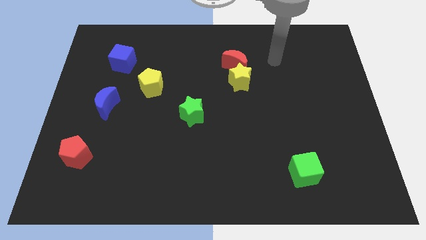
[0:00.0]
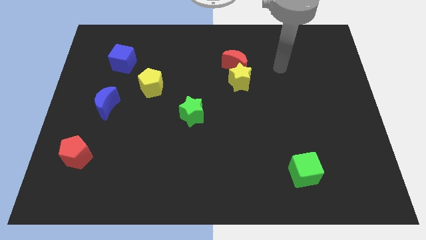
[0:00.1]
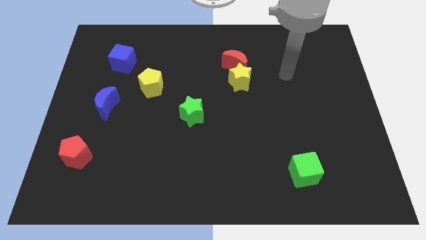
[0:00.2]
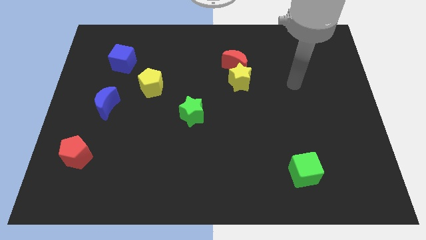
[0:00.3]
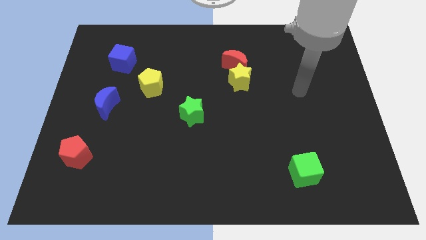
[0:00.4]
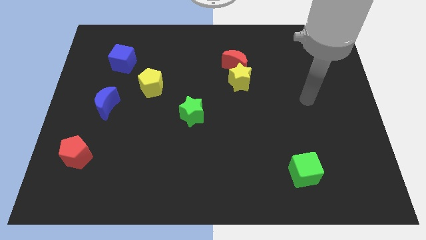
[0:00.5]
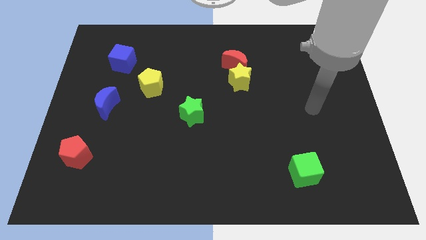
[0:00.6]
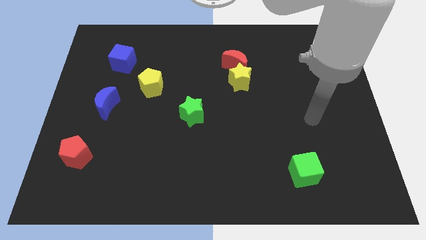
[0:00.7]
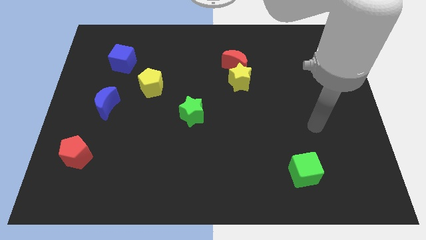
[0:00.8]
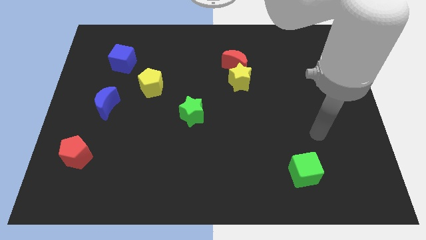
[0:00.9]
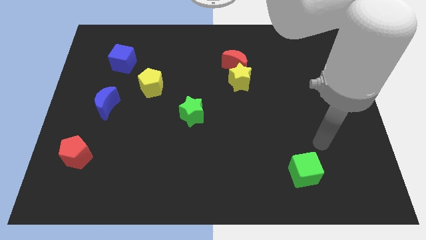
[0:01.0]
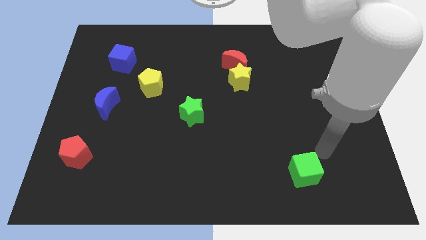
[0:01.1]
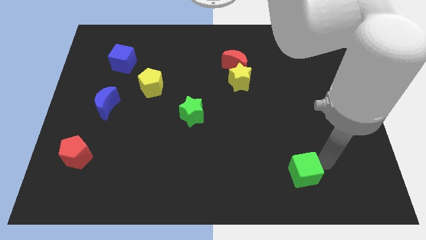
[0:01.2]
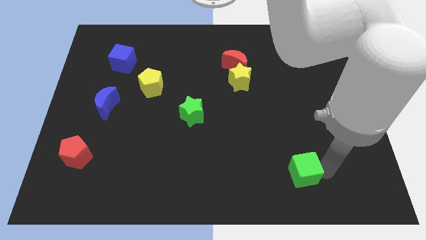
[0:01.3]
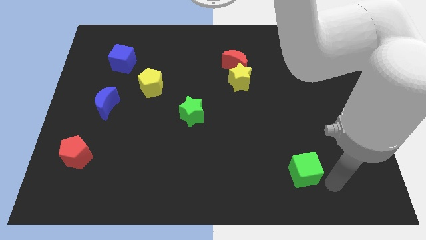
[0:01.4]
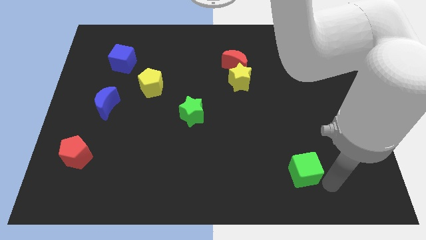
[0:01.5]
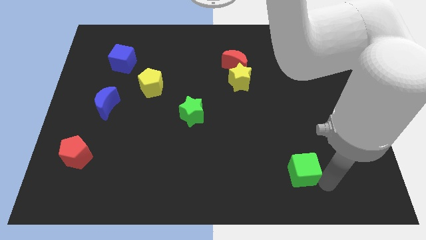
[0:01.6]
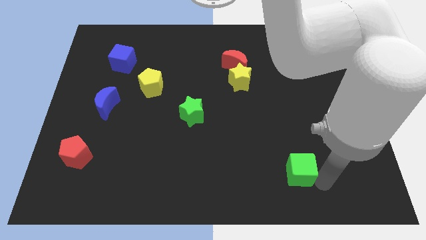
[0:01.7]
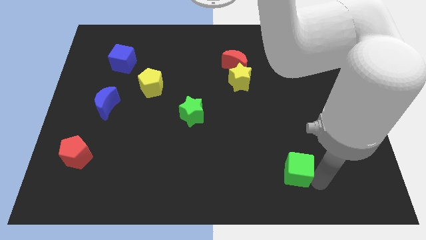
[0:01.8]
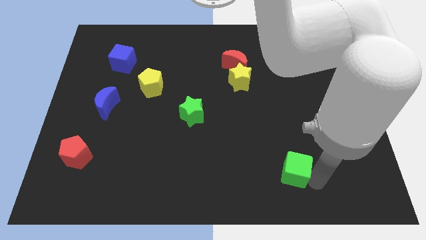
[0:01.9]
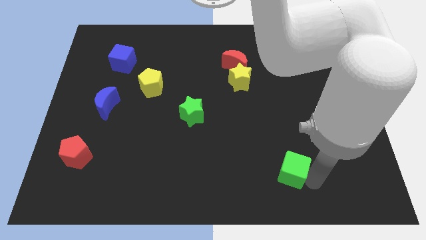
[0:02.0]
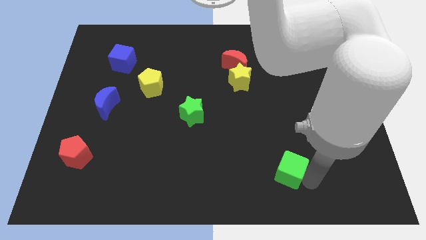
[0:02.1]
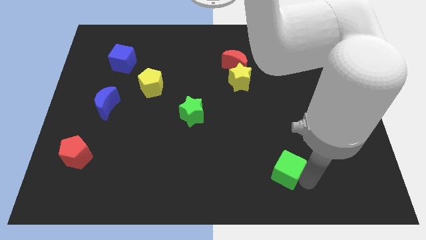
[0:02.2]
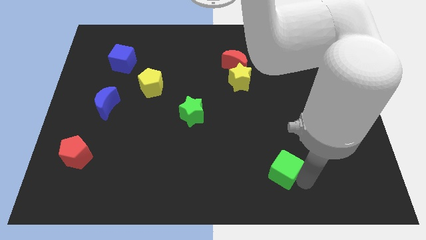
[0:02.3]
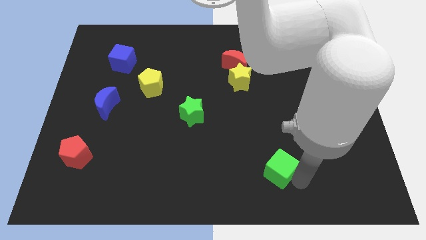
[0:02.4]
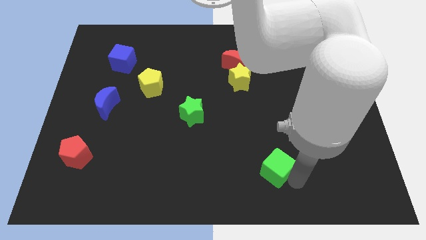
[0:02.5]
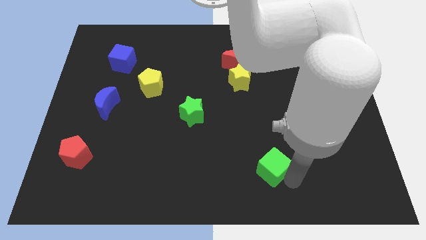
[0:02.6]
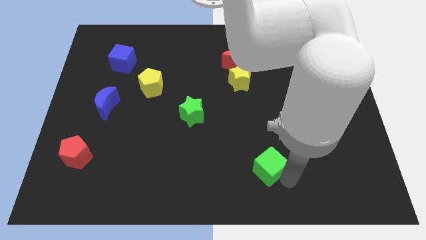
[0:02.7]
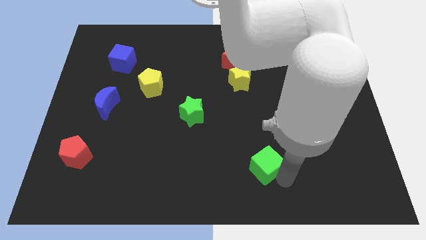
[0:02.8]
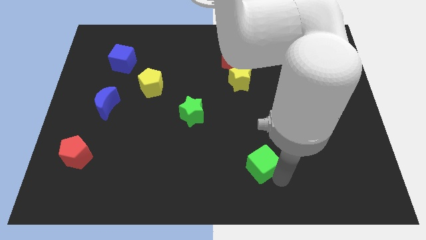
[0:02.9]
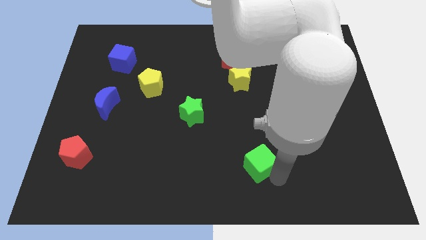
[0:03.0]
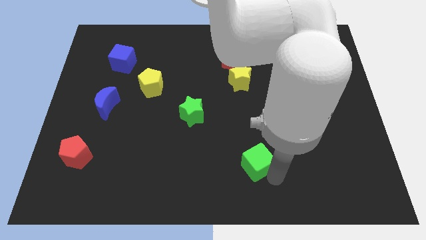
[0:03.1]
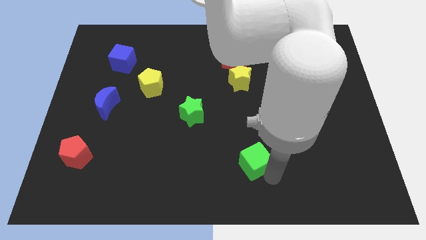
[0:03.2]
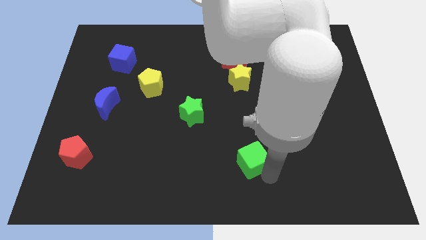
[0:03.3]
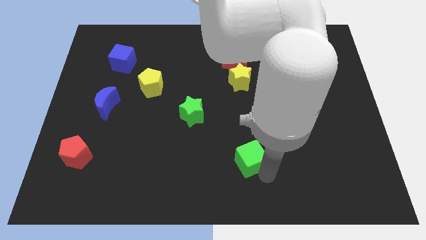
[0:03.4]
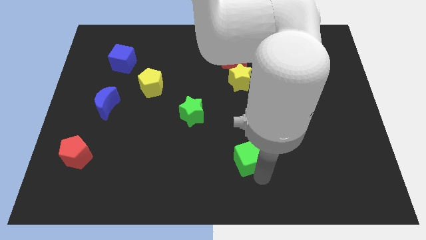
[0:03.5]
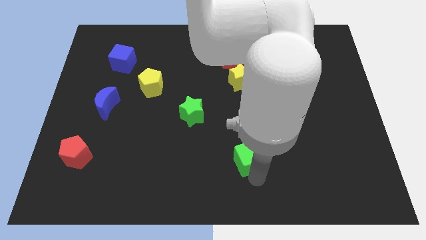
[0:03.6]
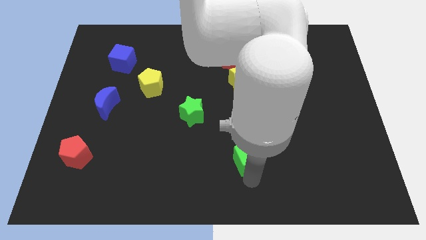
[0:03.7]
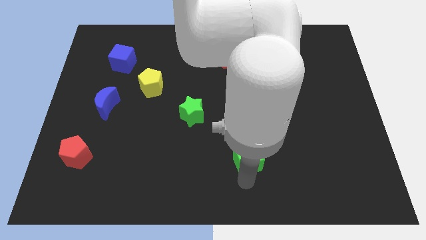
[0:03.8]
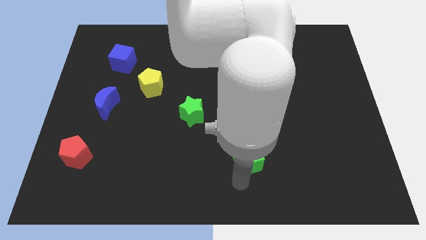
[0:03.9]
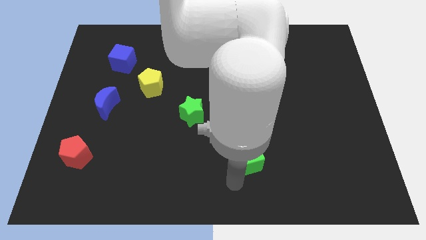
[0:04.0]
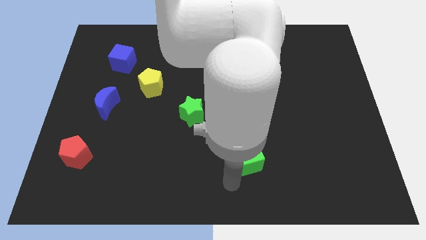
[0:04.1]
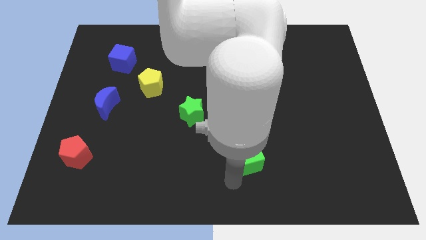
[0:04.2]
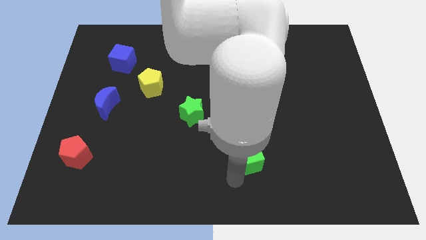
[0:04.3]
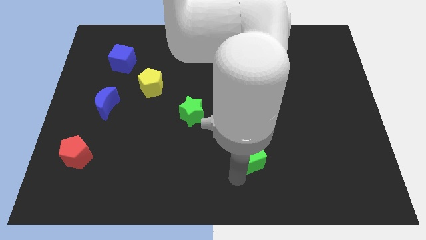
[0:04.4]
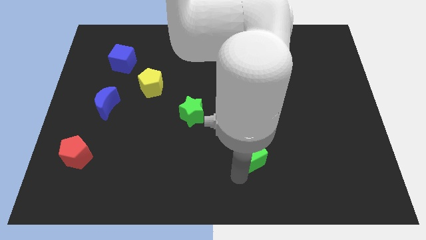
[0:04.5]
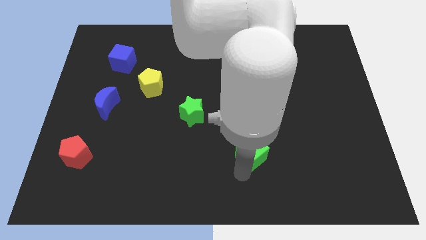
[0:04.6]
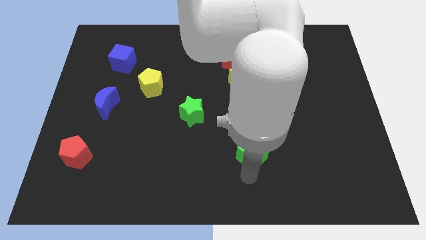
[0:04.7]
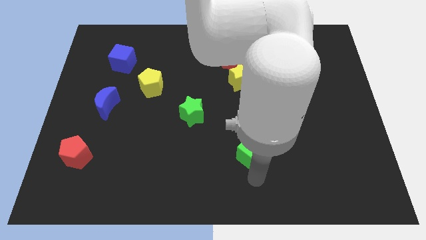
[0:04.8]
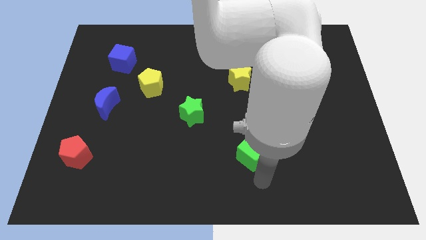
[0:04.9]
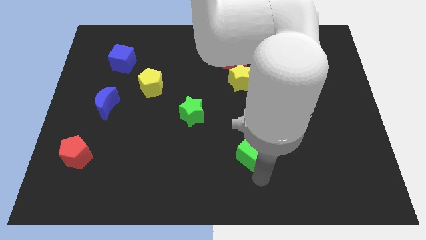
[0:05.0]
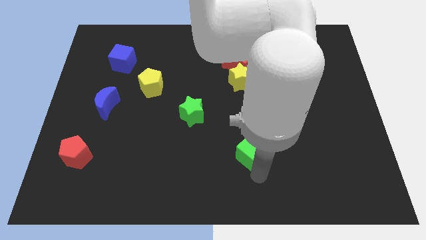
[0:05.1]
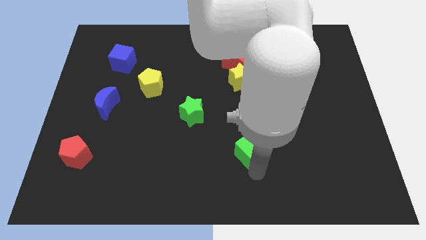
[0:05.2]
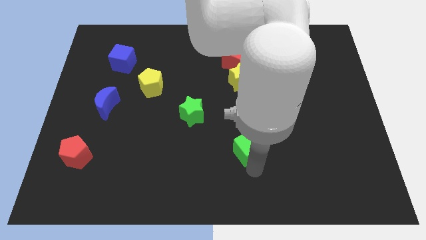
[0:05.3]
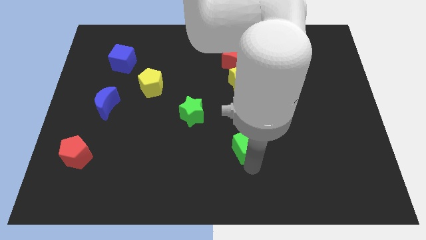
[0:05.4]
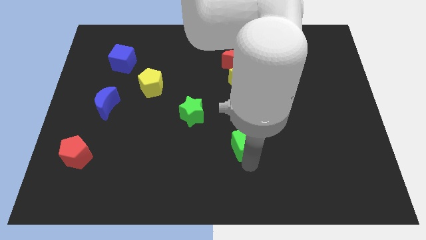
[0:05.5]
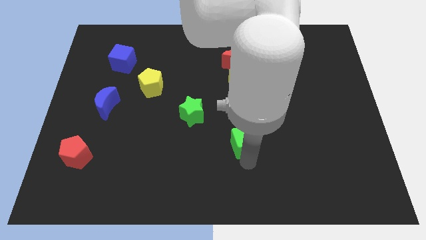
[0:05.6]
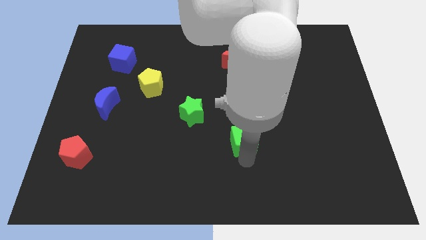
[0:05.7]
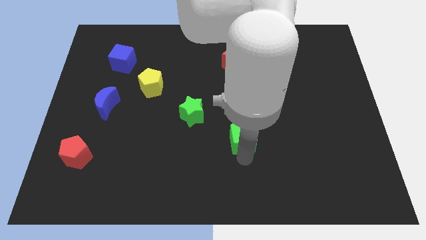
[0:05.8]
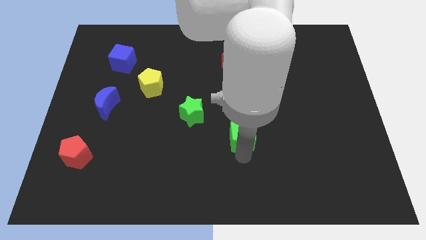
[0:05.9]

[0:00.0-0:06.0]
push the green cube to the center

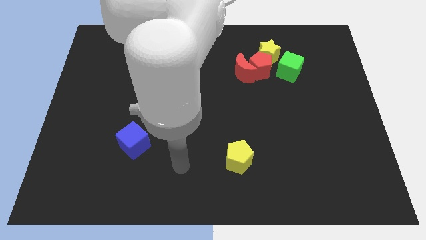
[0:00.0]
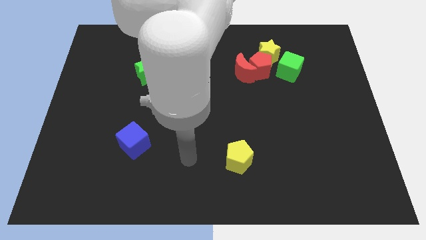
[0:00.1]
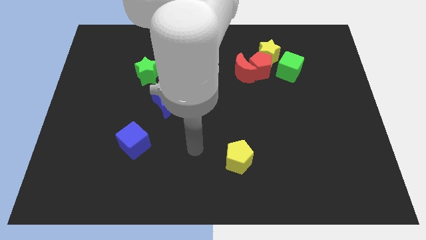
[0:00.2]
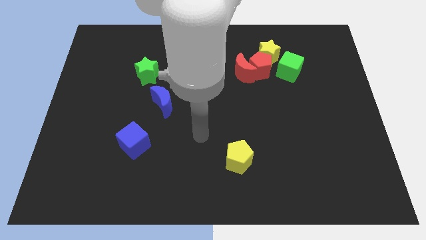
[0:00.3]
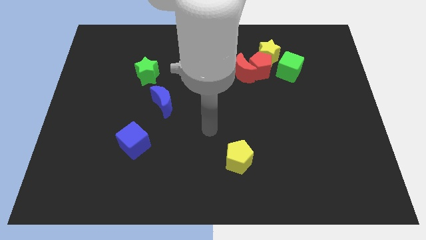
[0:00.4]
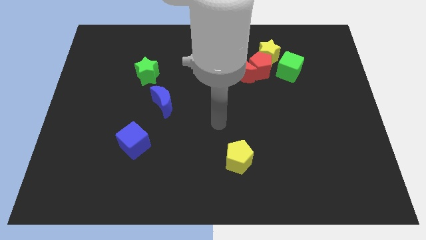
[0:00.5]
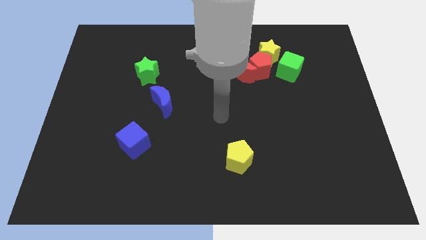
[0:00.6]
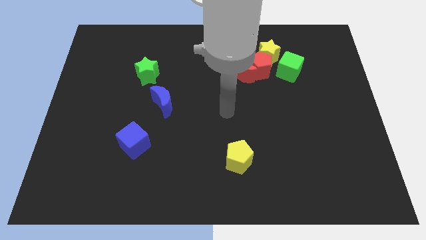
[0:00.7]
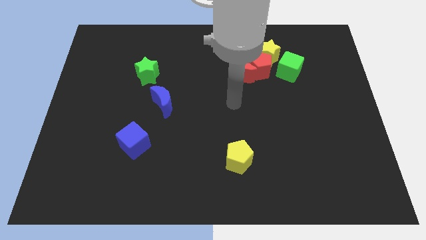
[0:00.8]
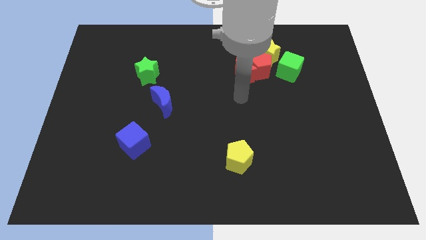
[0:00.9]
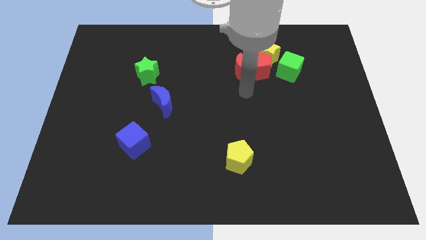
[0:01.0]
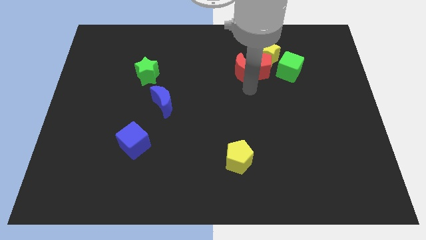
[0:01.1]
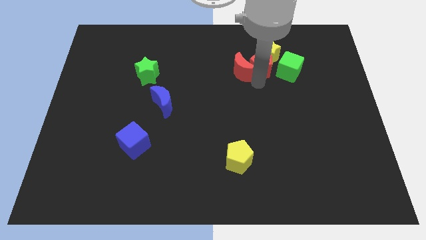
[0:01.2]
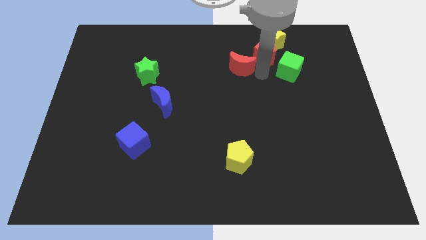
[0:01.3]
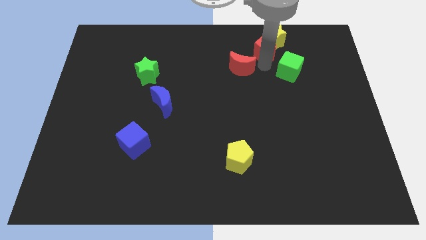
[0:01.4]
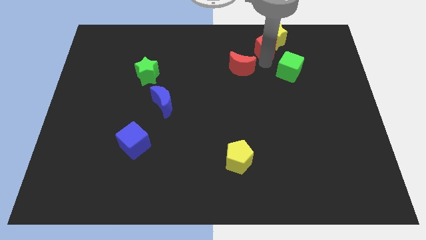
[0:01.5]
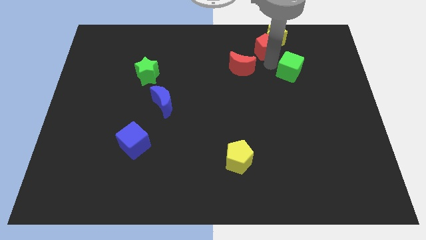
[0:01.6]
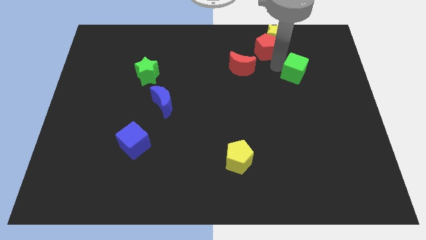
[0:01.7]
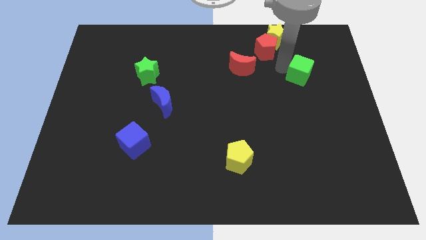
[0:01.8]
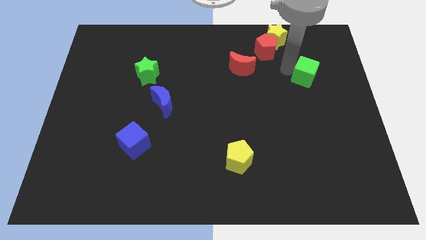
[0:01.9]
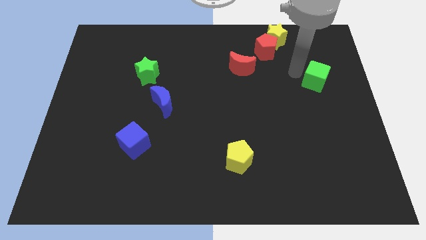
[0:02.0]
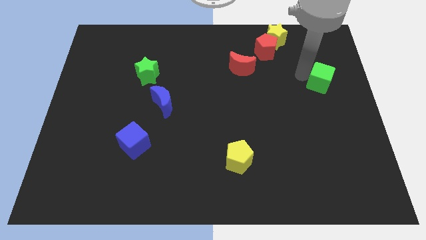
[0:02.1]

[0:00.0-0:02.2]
push the green cube to the center right
